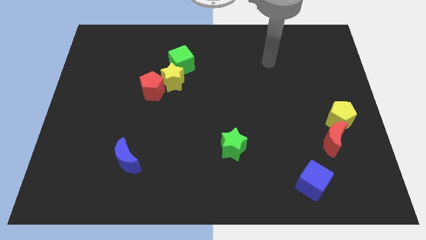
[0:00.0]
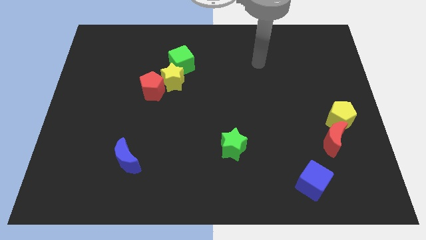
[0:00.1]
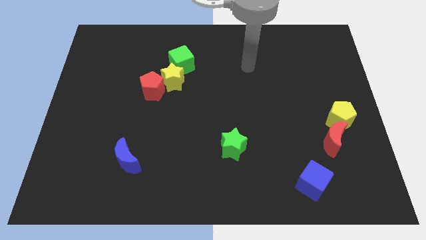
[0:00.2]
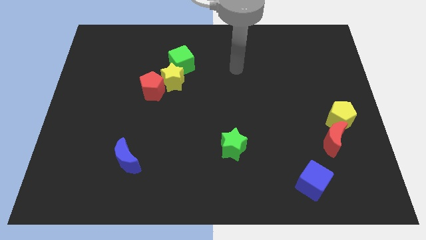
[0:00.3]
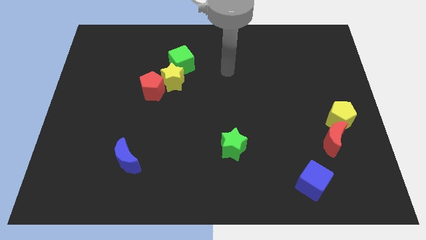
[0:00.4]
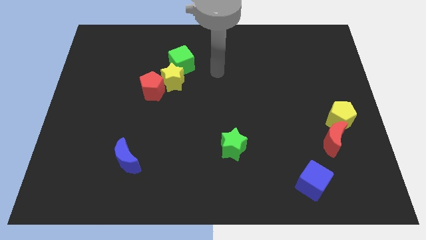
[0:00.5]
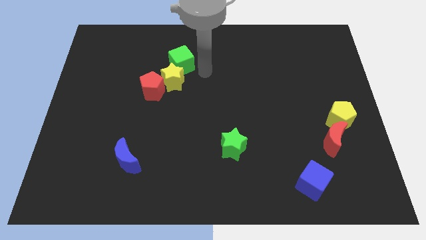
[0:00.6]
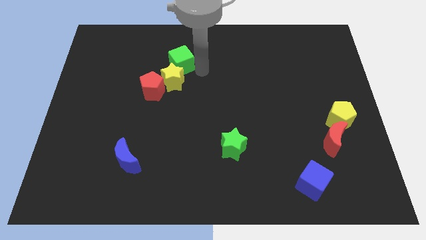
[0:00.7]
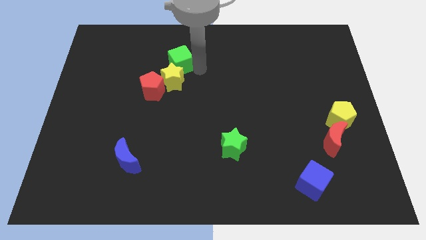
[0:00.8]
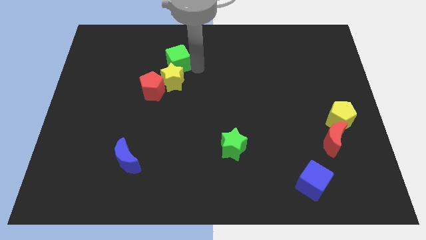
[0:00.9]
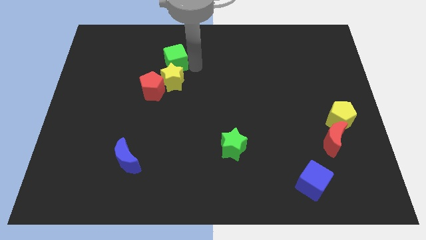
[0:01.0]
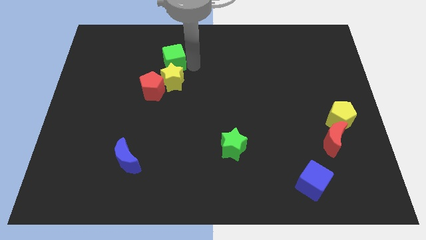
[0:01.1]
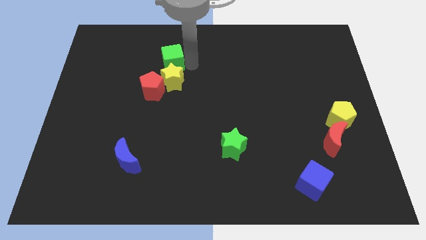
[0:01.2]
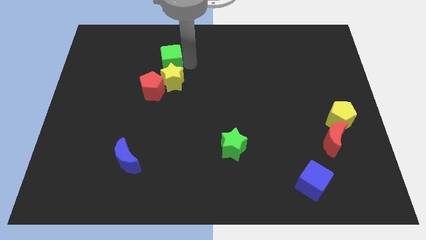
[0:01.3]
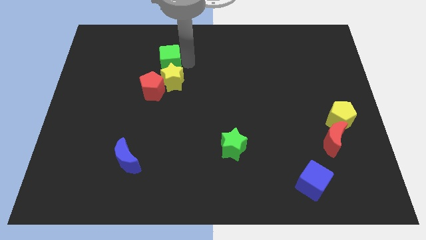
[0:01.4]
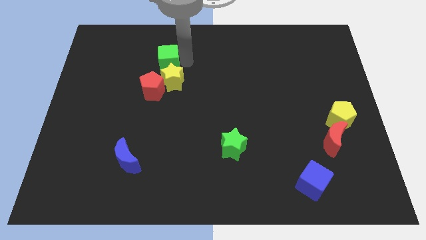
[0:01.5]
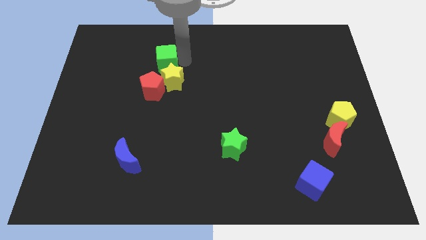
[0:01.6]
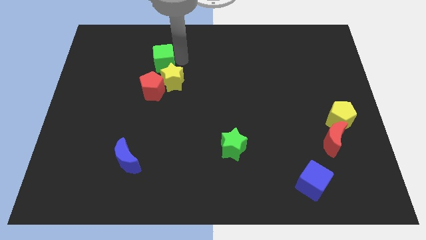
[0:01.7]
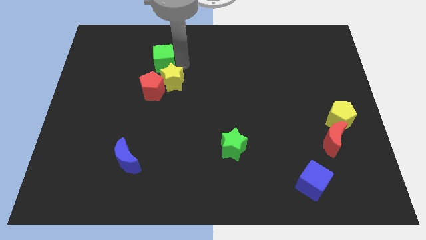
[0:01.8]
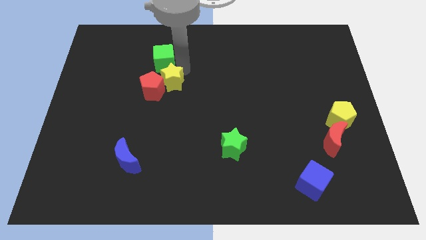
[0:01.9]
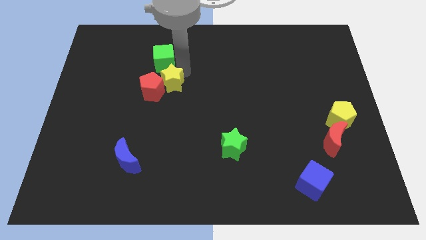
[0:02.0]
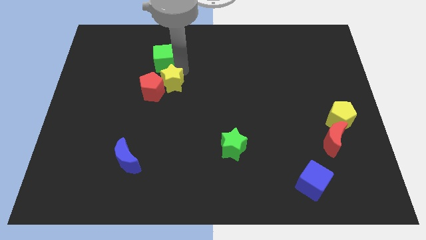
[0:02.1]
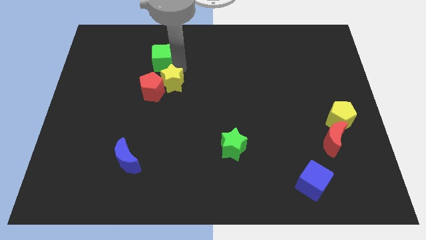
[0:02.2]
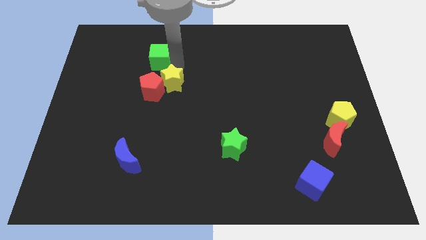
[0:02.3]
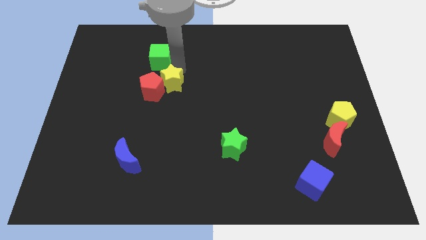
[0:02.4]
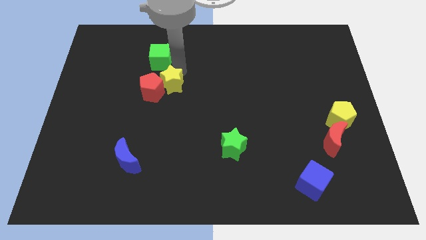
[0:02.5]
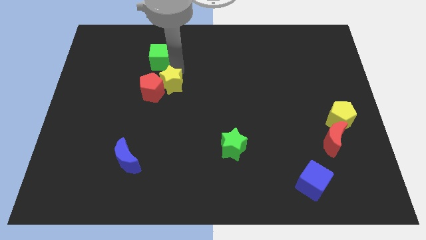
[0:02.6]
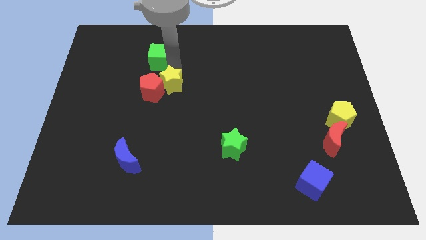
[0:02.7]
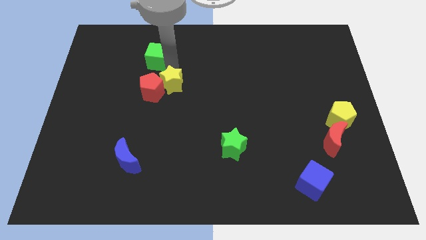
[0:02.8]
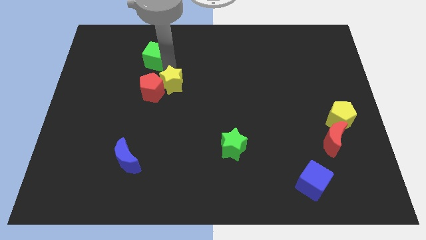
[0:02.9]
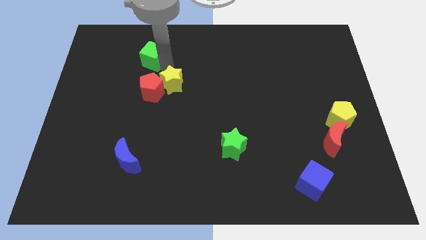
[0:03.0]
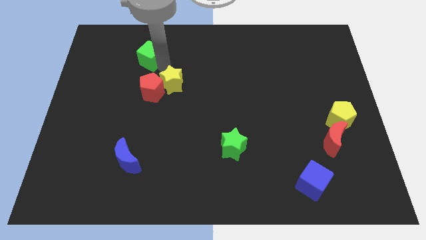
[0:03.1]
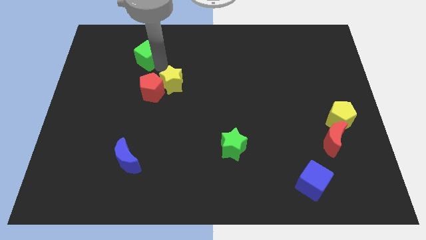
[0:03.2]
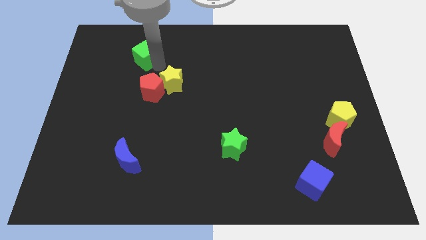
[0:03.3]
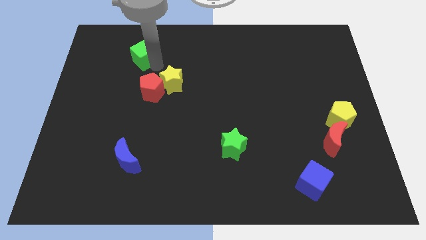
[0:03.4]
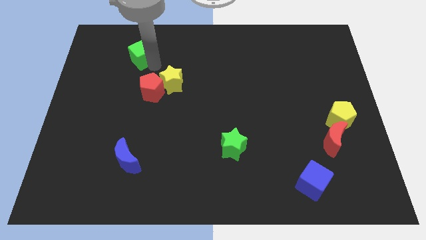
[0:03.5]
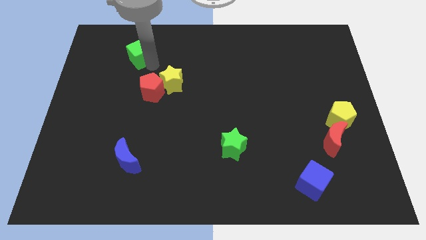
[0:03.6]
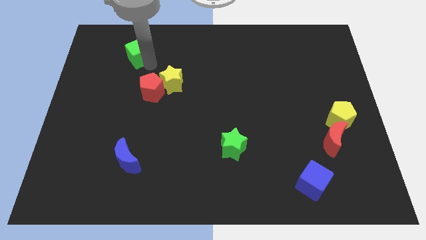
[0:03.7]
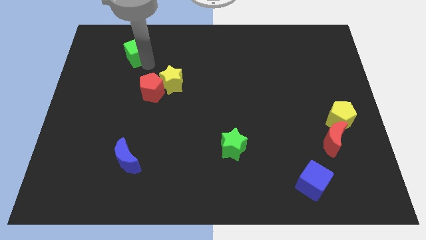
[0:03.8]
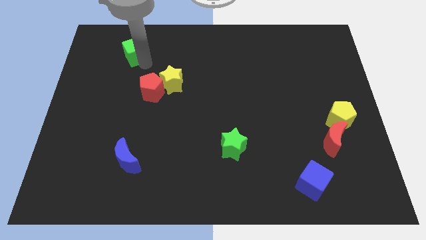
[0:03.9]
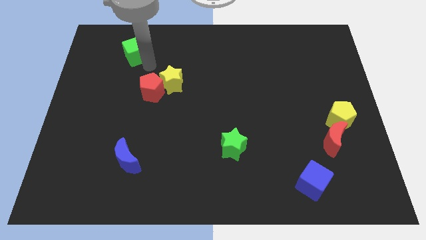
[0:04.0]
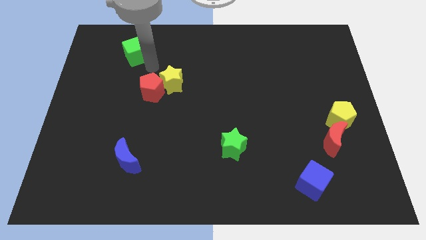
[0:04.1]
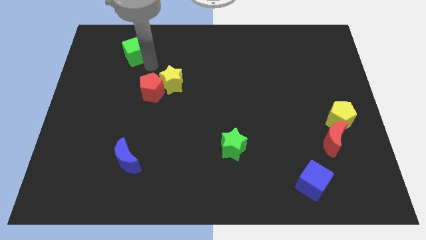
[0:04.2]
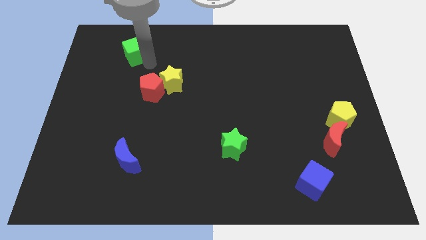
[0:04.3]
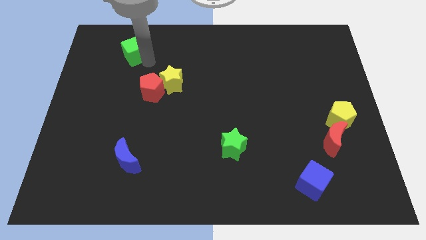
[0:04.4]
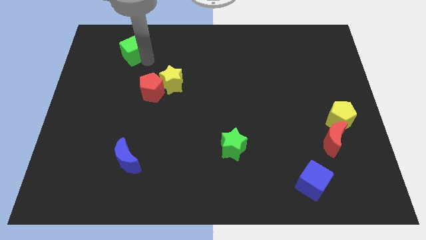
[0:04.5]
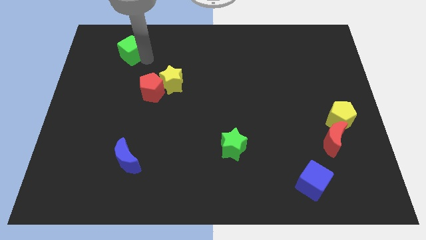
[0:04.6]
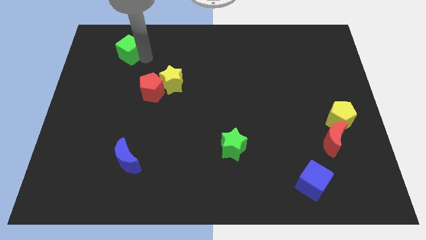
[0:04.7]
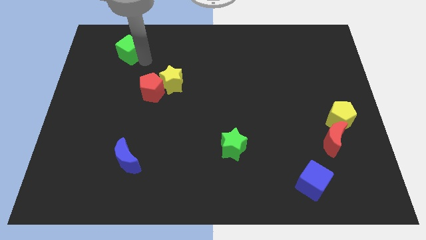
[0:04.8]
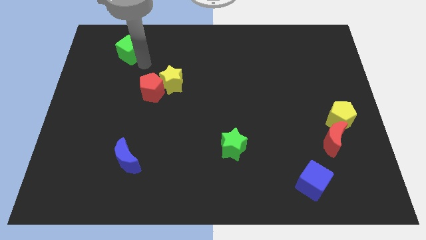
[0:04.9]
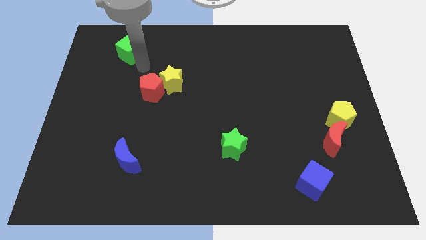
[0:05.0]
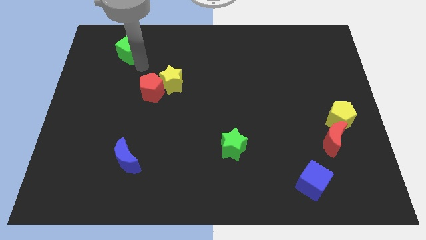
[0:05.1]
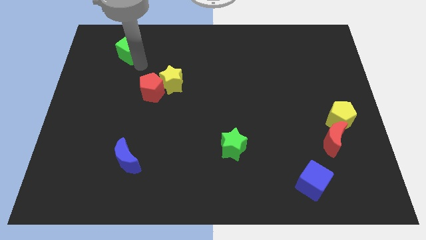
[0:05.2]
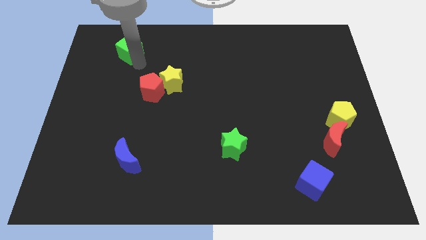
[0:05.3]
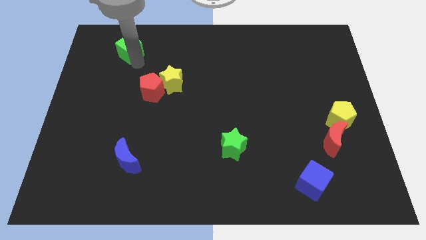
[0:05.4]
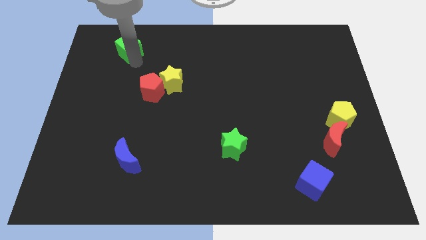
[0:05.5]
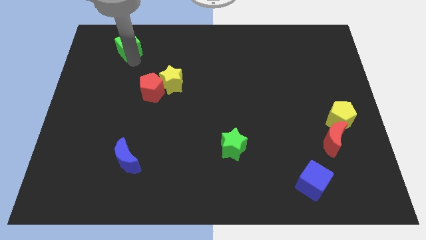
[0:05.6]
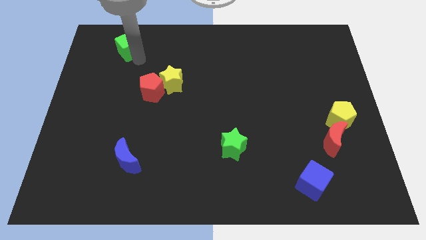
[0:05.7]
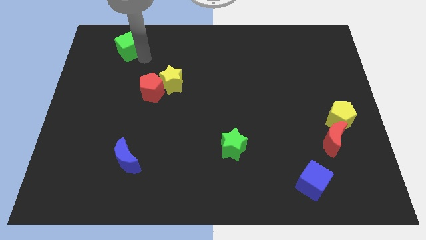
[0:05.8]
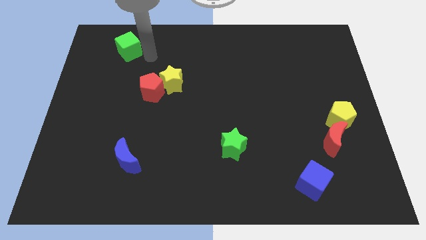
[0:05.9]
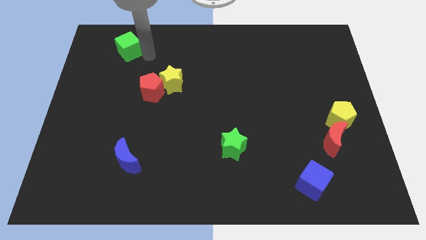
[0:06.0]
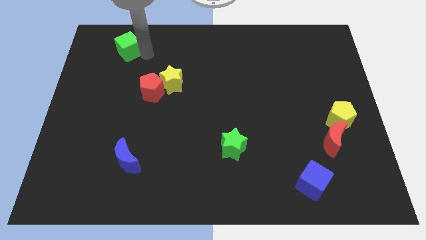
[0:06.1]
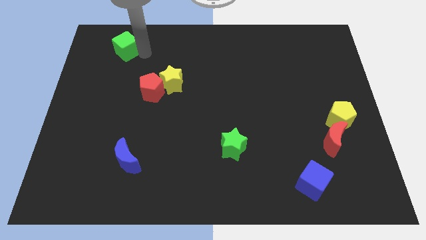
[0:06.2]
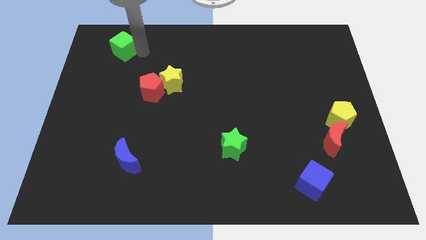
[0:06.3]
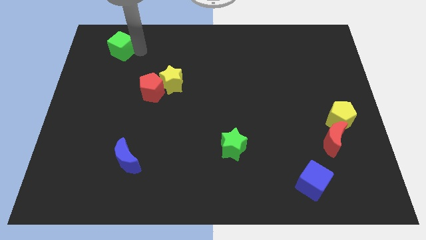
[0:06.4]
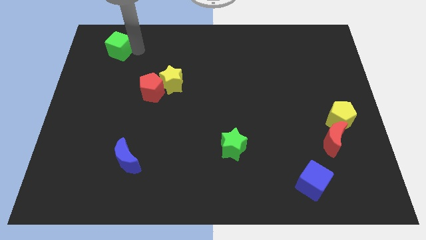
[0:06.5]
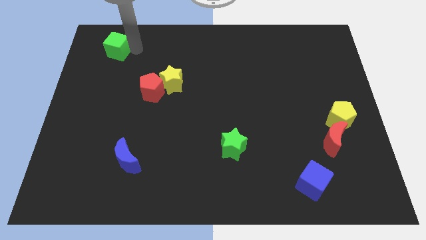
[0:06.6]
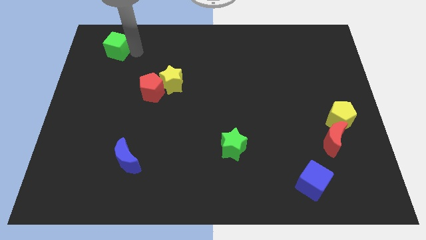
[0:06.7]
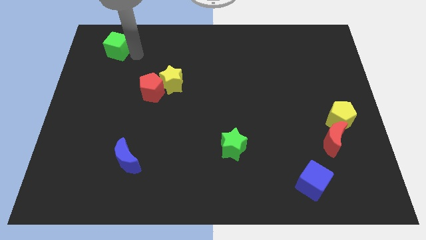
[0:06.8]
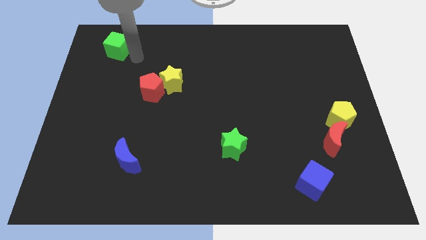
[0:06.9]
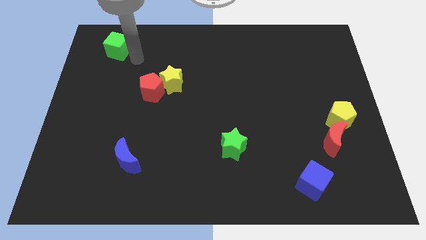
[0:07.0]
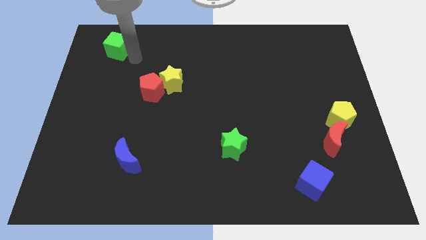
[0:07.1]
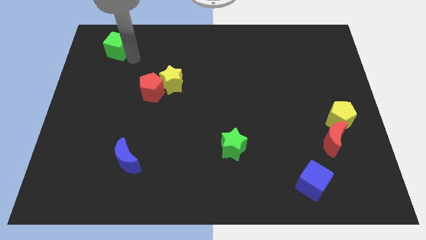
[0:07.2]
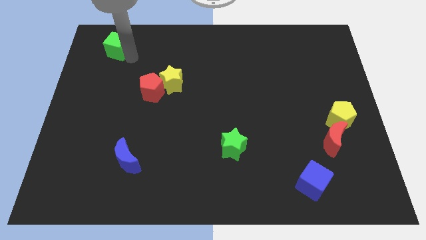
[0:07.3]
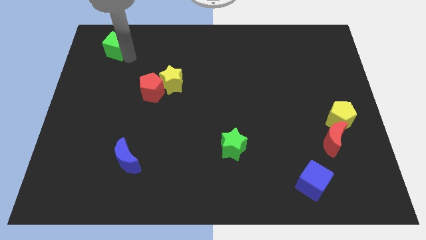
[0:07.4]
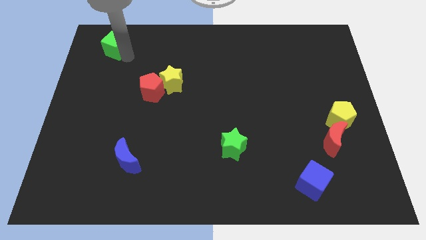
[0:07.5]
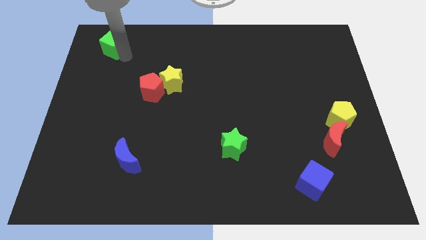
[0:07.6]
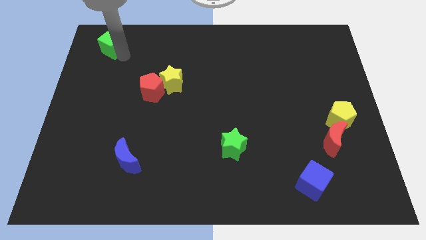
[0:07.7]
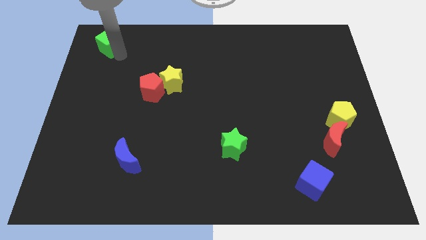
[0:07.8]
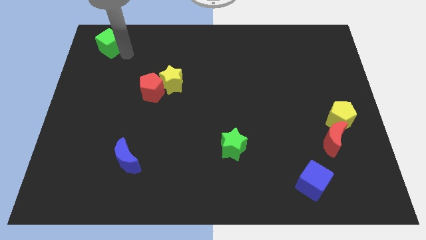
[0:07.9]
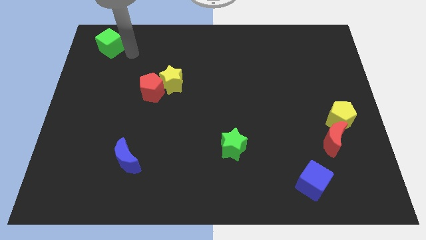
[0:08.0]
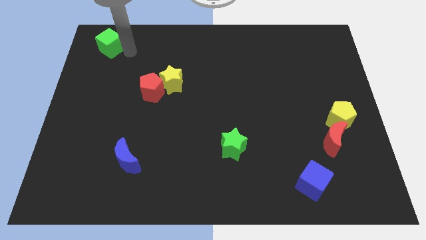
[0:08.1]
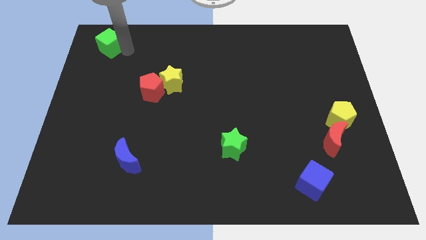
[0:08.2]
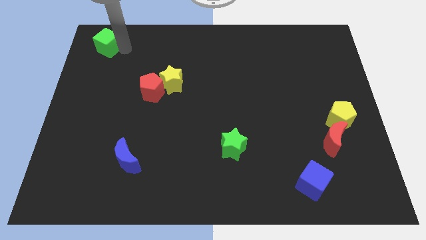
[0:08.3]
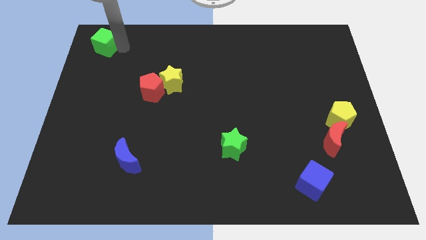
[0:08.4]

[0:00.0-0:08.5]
push the green cube to the upper left corner
